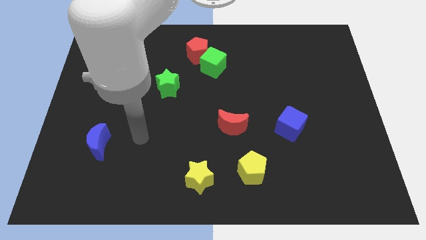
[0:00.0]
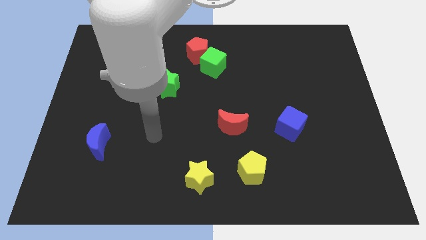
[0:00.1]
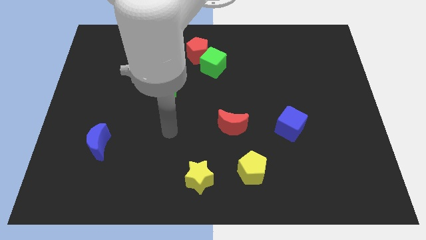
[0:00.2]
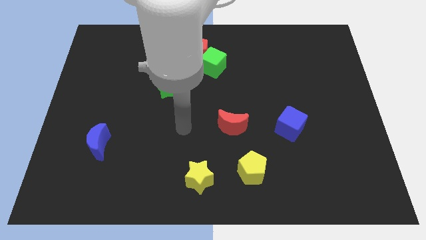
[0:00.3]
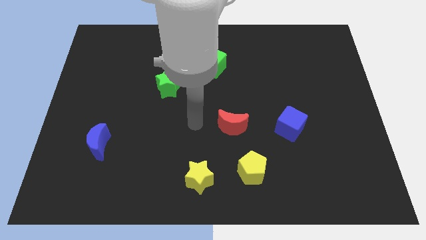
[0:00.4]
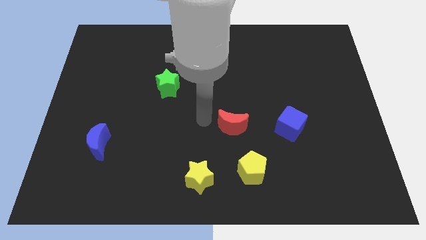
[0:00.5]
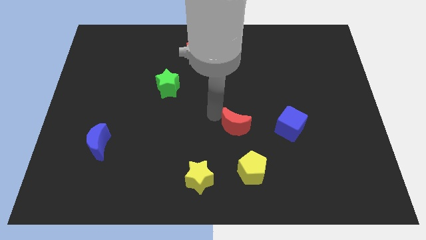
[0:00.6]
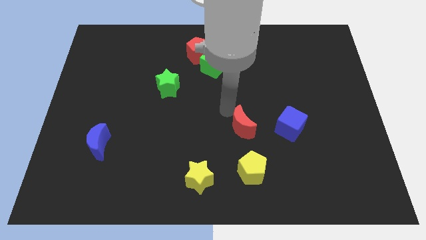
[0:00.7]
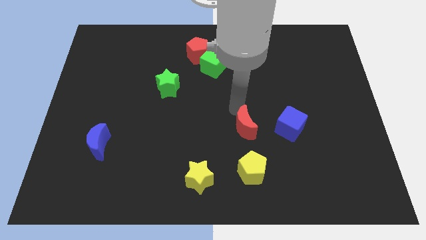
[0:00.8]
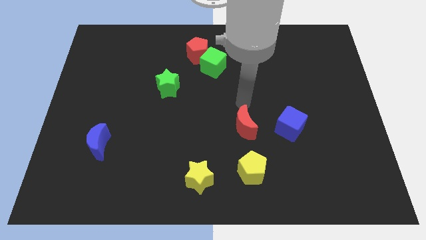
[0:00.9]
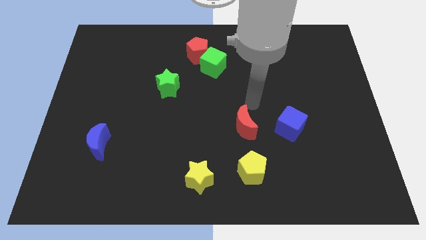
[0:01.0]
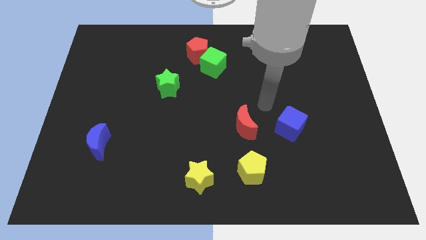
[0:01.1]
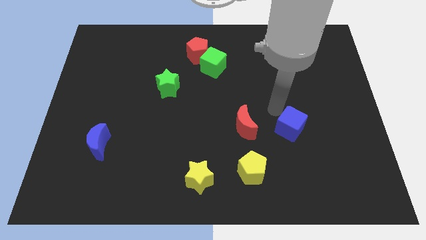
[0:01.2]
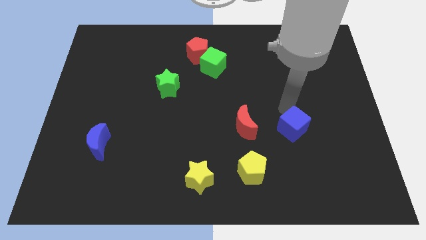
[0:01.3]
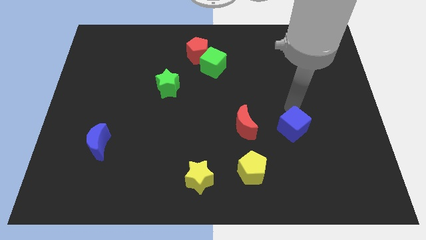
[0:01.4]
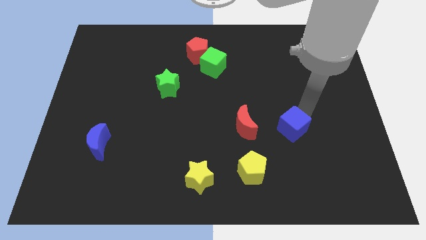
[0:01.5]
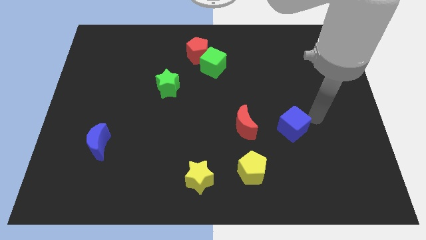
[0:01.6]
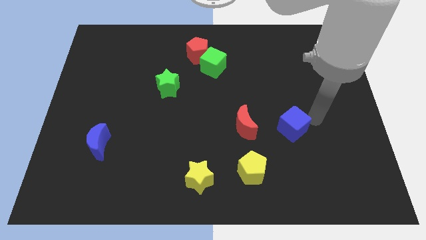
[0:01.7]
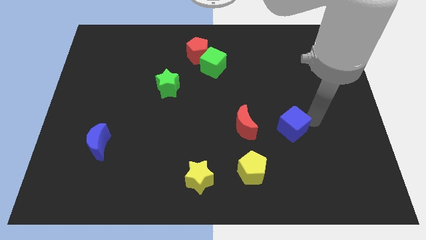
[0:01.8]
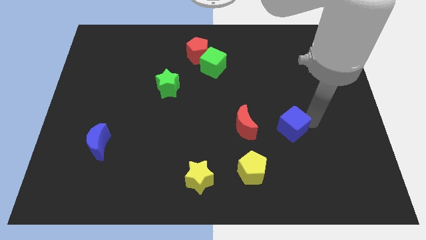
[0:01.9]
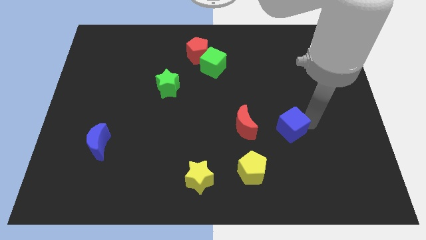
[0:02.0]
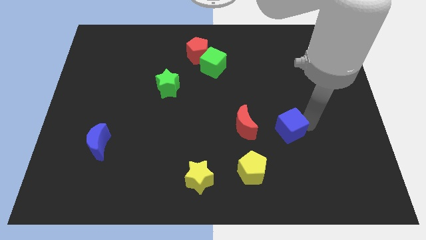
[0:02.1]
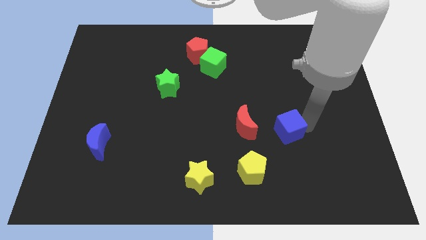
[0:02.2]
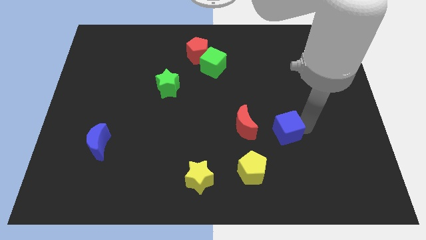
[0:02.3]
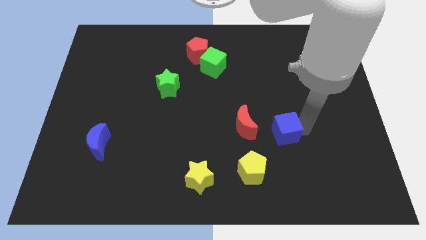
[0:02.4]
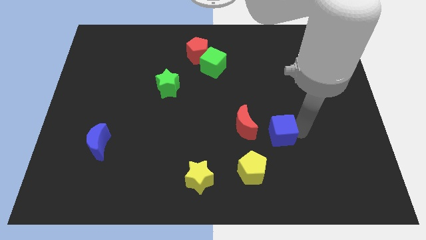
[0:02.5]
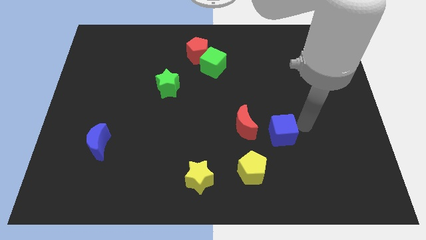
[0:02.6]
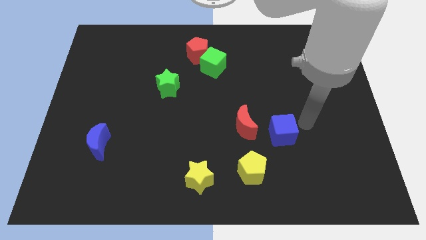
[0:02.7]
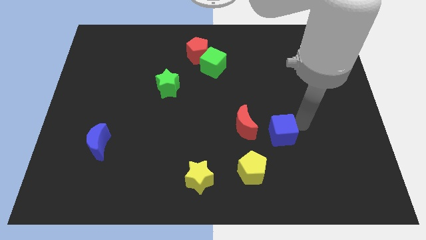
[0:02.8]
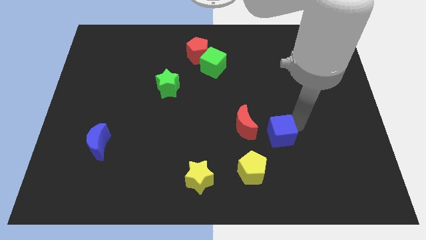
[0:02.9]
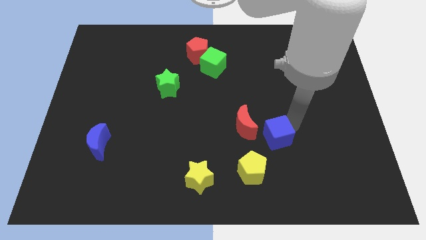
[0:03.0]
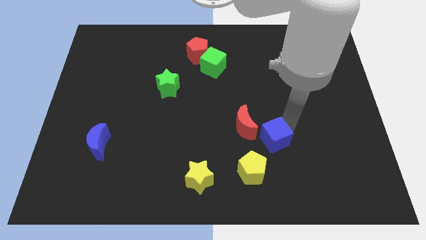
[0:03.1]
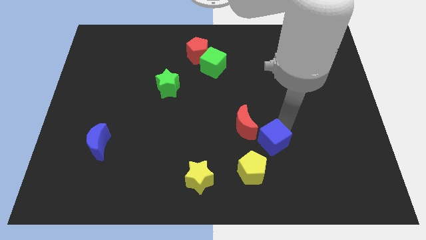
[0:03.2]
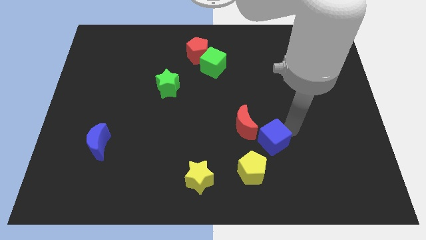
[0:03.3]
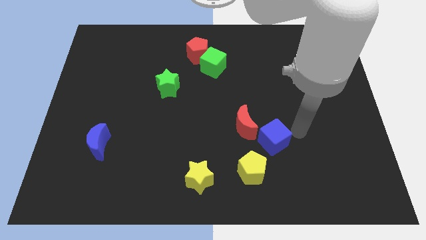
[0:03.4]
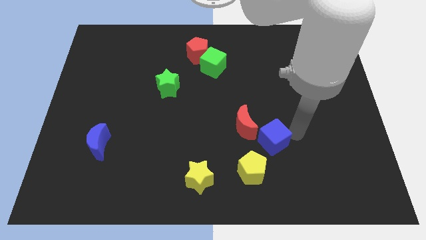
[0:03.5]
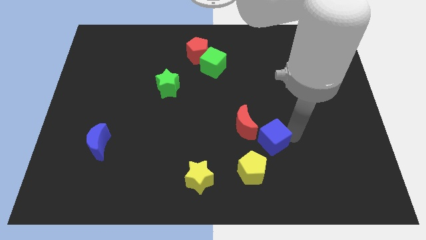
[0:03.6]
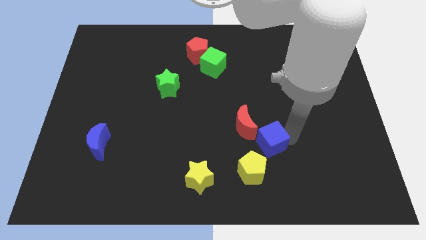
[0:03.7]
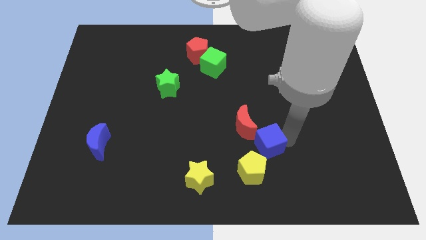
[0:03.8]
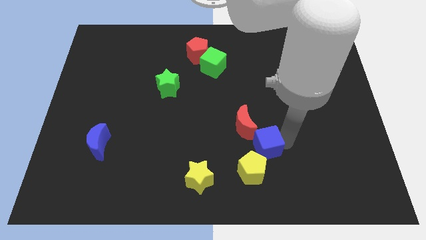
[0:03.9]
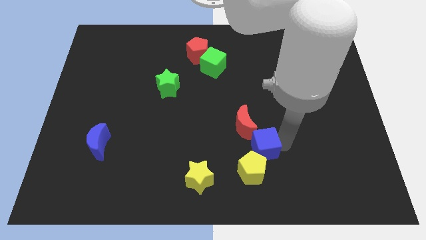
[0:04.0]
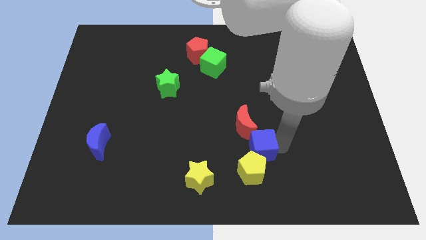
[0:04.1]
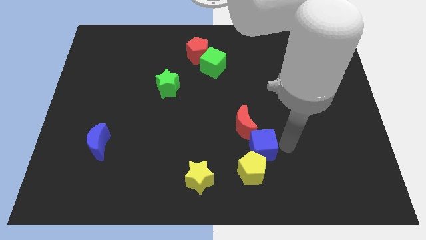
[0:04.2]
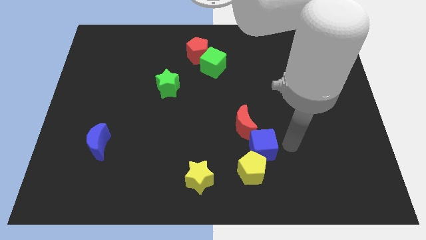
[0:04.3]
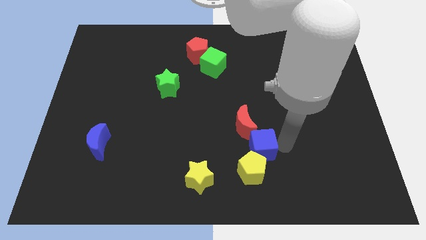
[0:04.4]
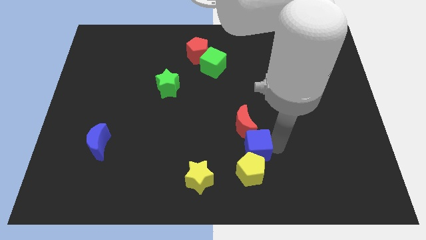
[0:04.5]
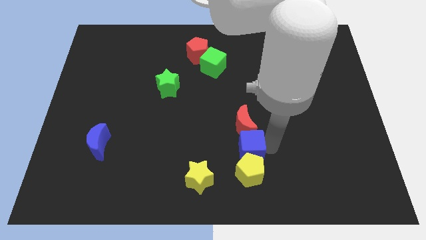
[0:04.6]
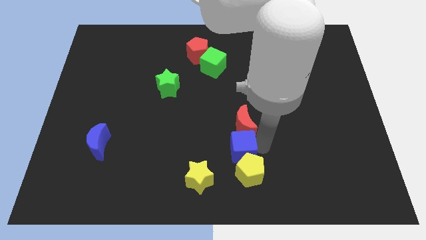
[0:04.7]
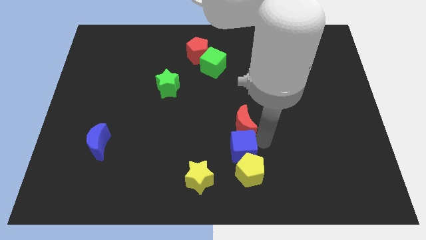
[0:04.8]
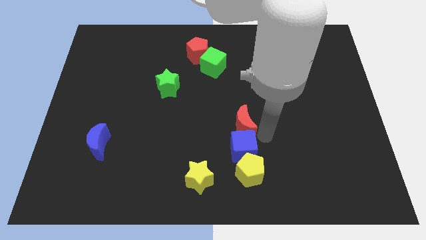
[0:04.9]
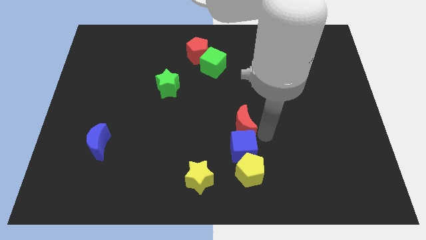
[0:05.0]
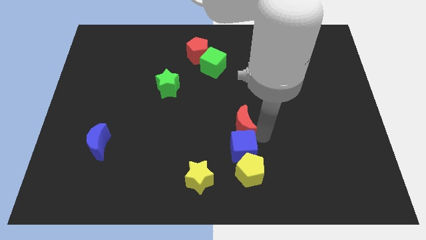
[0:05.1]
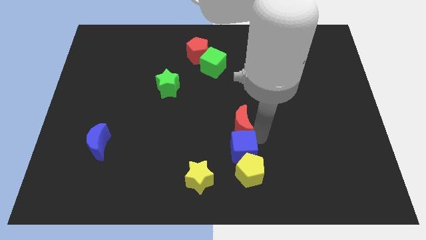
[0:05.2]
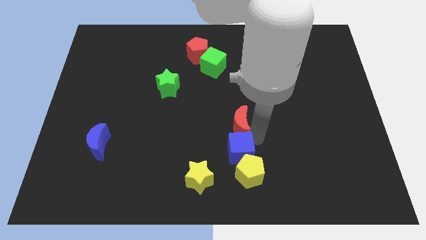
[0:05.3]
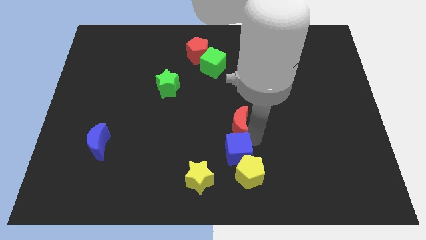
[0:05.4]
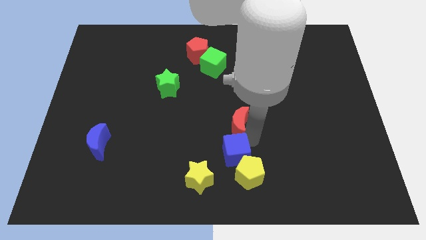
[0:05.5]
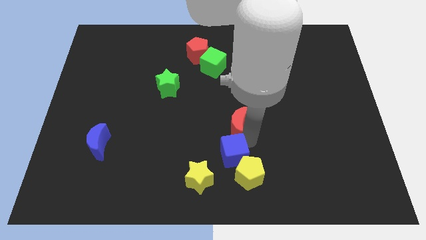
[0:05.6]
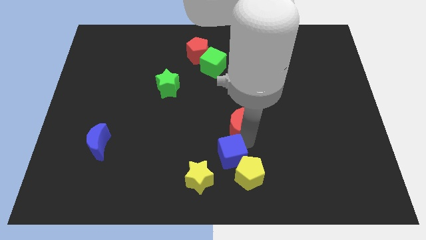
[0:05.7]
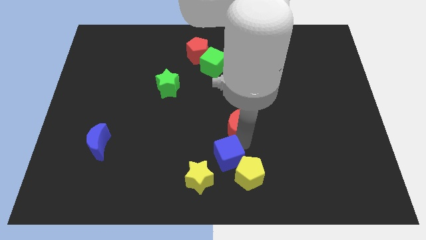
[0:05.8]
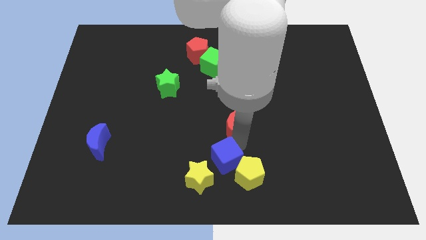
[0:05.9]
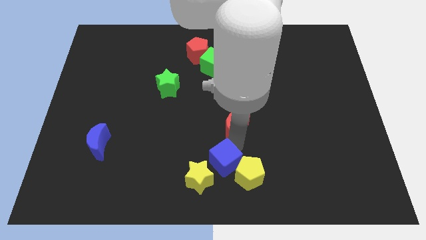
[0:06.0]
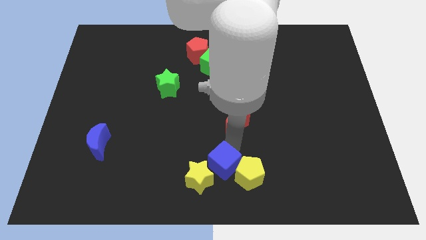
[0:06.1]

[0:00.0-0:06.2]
push the blue cube close to the yellow star
